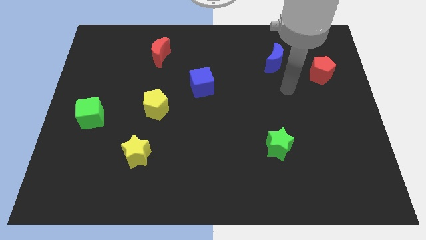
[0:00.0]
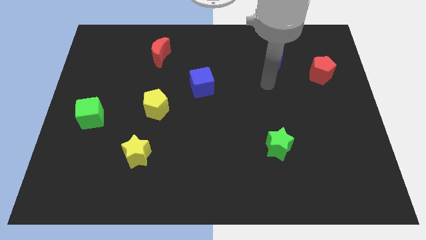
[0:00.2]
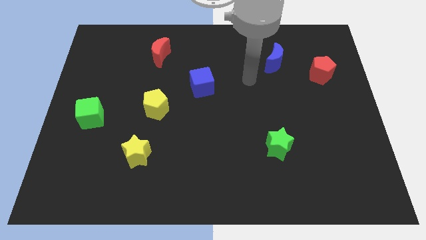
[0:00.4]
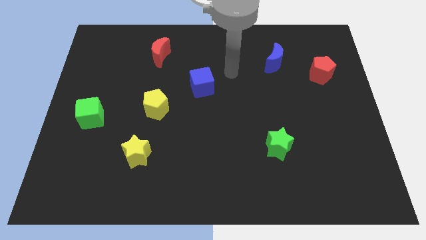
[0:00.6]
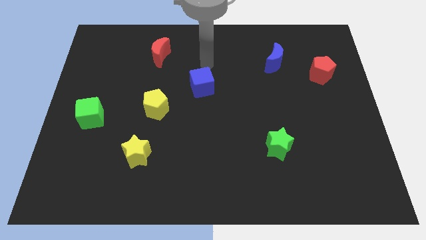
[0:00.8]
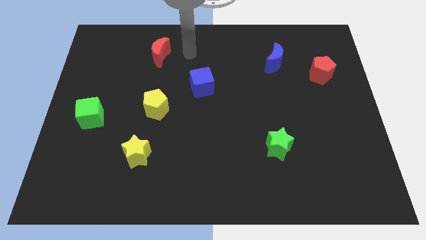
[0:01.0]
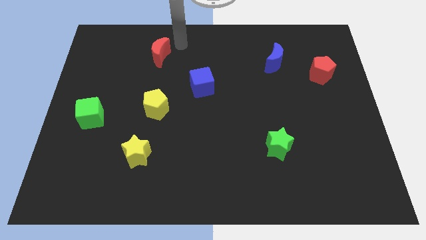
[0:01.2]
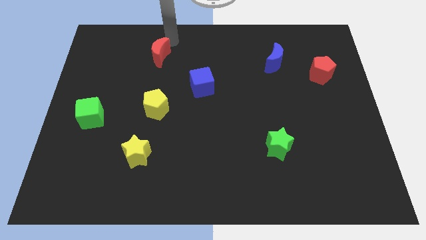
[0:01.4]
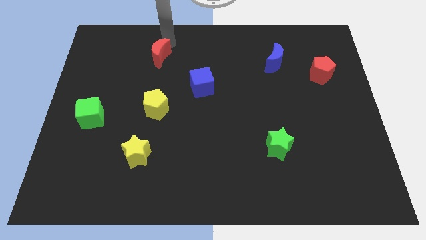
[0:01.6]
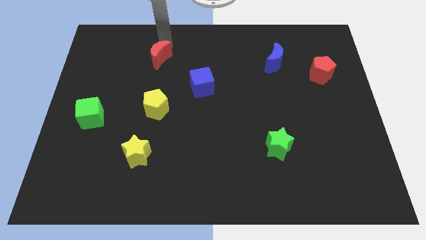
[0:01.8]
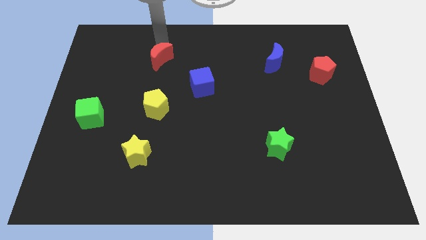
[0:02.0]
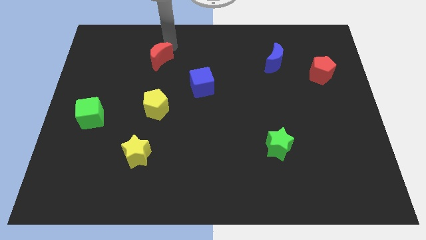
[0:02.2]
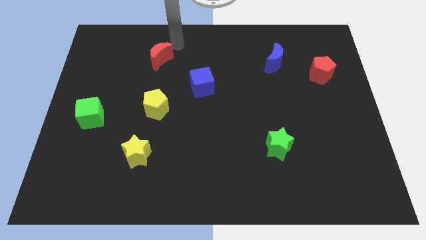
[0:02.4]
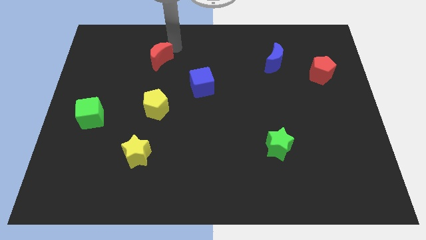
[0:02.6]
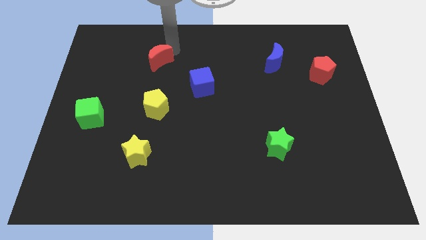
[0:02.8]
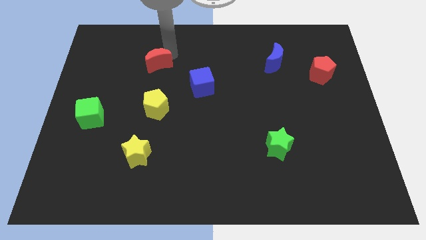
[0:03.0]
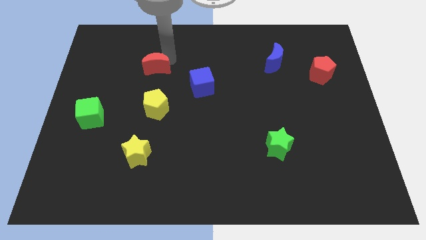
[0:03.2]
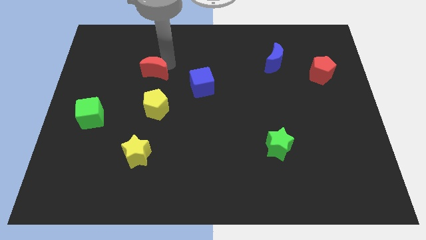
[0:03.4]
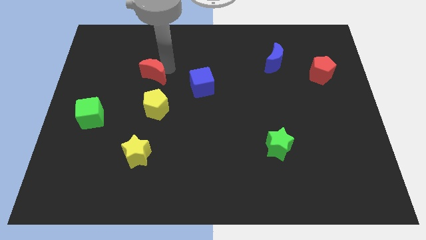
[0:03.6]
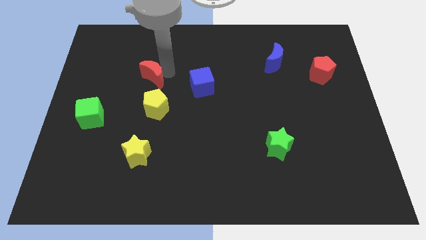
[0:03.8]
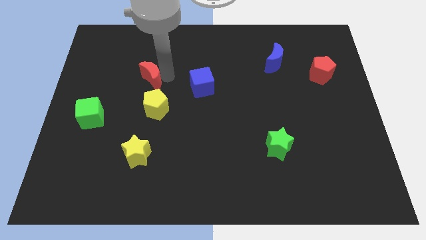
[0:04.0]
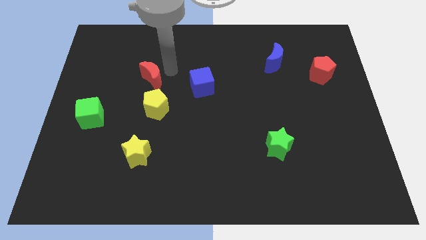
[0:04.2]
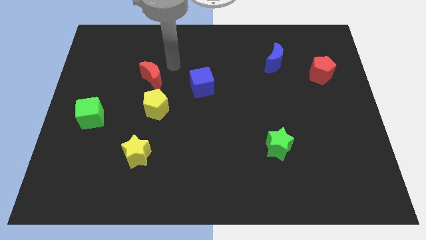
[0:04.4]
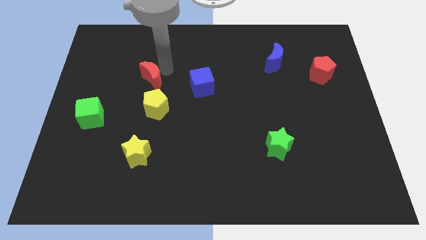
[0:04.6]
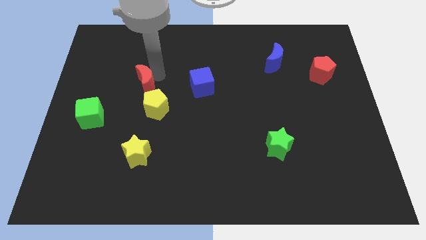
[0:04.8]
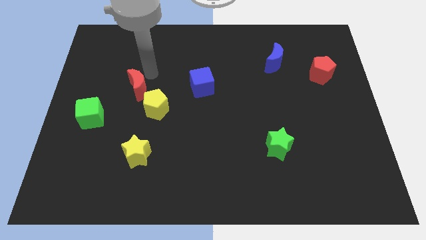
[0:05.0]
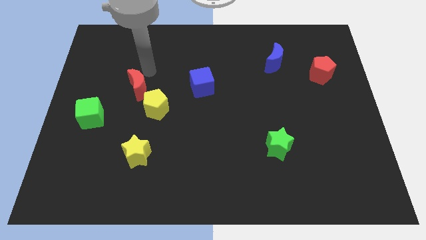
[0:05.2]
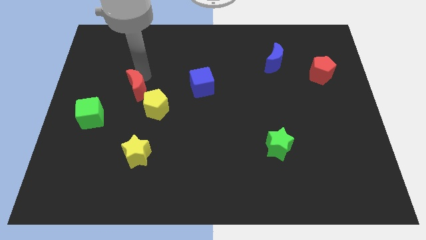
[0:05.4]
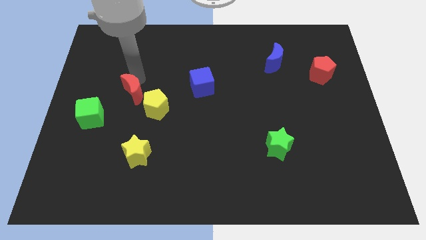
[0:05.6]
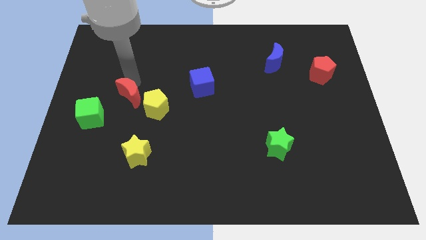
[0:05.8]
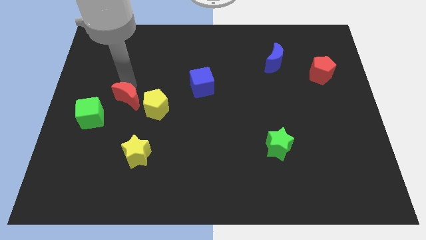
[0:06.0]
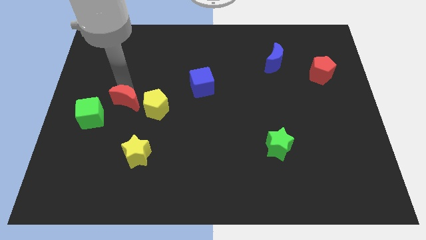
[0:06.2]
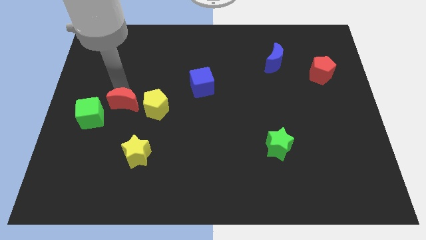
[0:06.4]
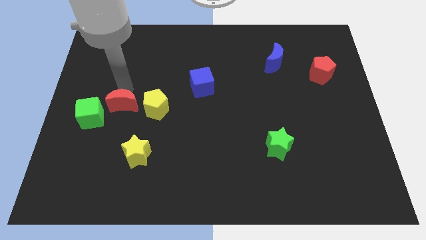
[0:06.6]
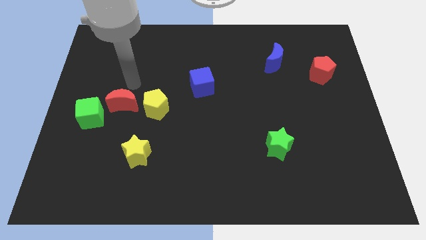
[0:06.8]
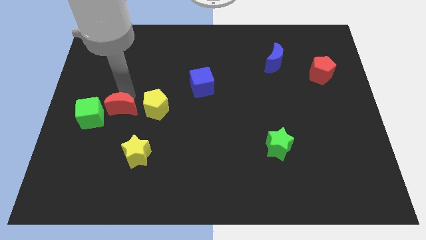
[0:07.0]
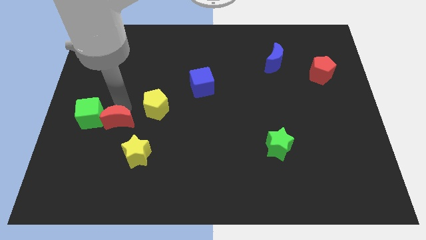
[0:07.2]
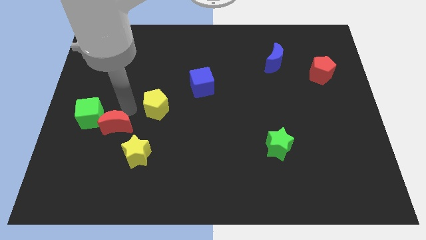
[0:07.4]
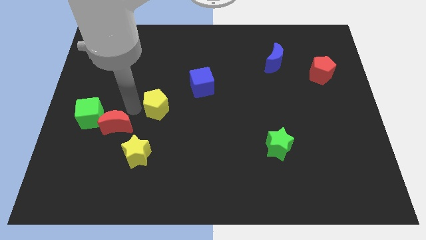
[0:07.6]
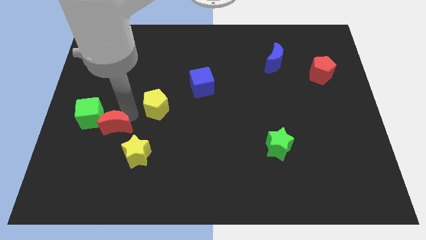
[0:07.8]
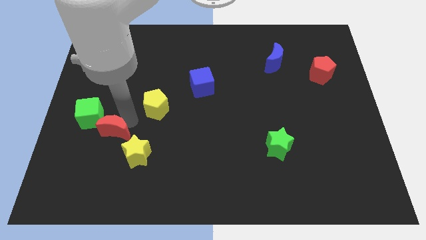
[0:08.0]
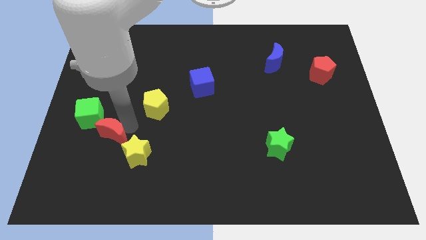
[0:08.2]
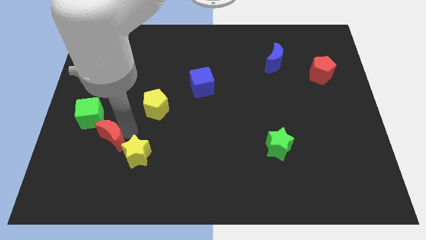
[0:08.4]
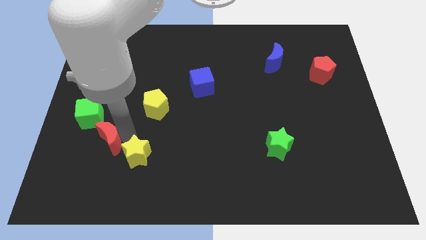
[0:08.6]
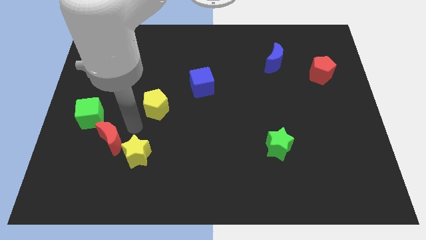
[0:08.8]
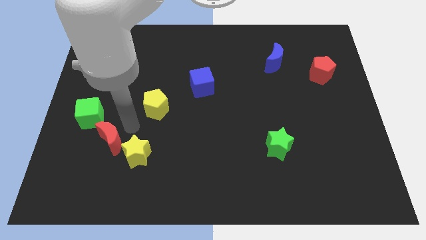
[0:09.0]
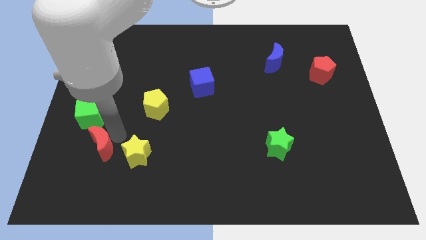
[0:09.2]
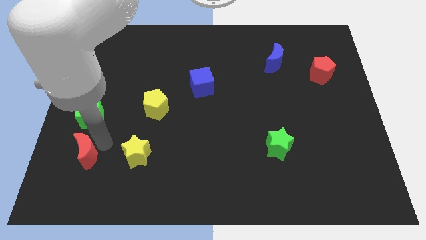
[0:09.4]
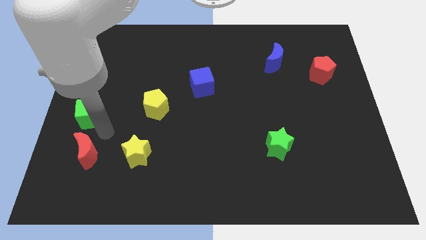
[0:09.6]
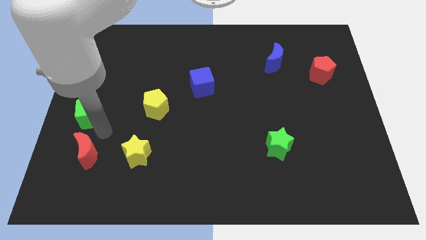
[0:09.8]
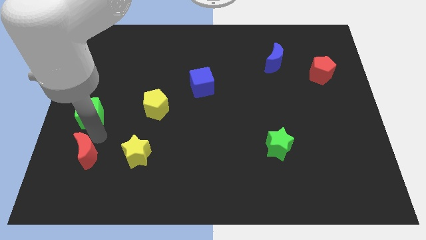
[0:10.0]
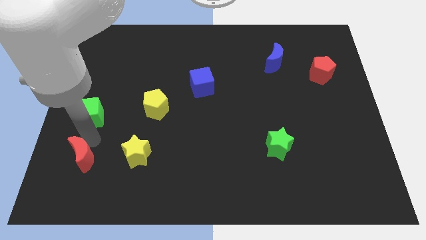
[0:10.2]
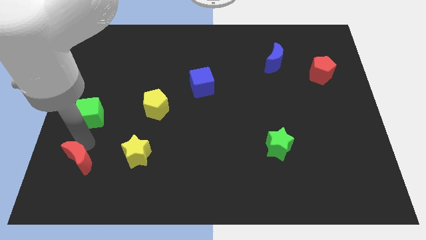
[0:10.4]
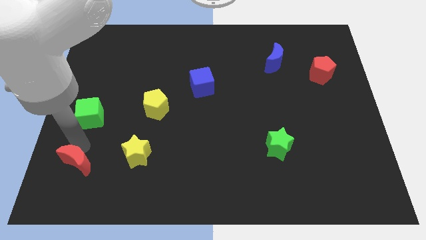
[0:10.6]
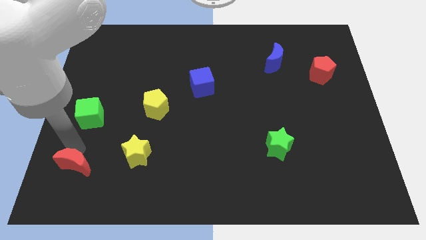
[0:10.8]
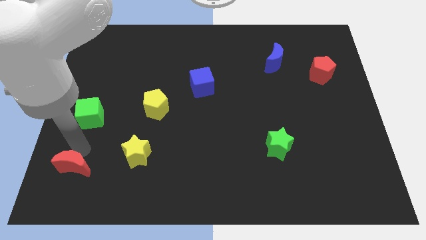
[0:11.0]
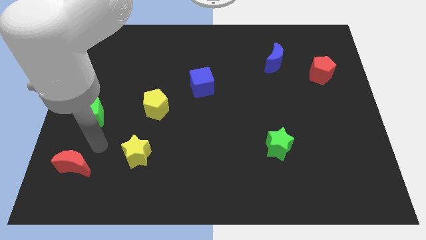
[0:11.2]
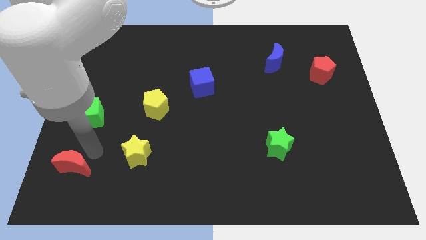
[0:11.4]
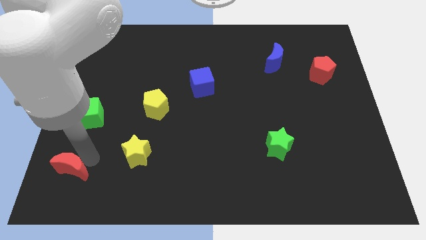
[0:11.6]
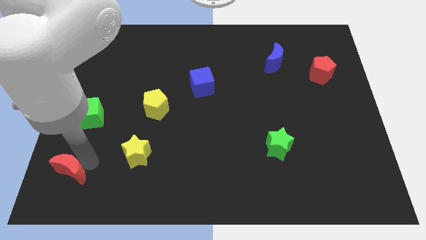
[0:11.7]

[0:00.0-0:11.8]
put the red moon to the bottom left of the board
